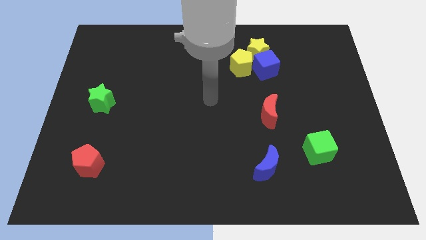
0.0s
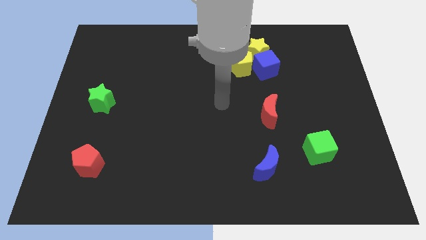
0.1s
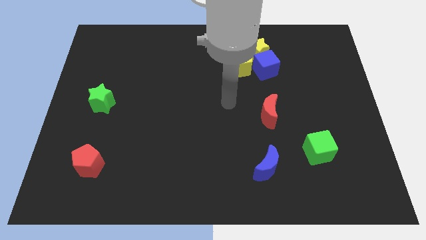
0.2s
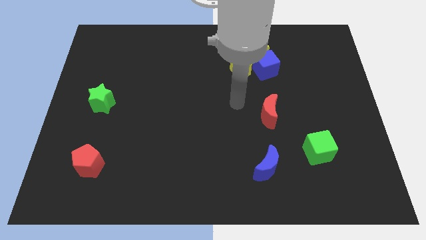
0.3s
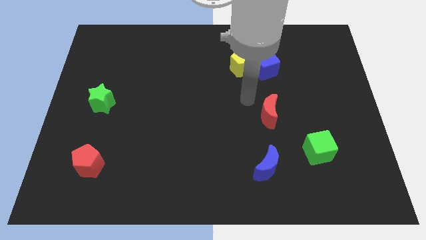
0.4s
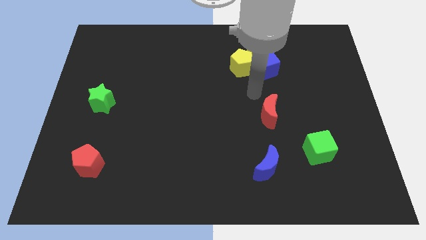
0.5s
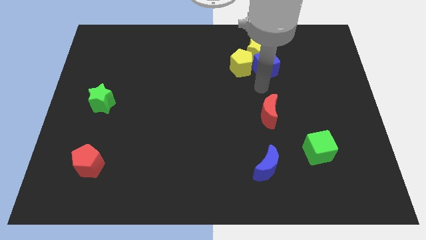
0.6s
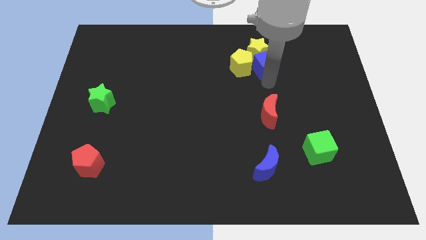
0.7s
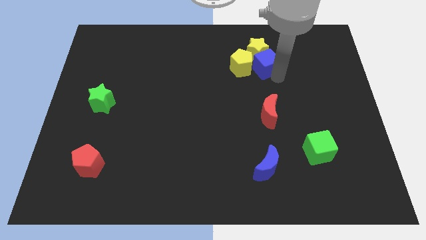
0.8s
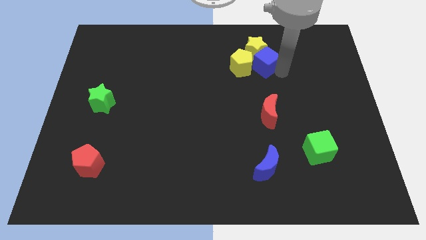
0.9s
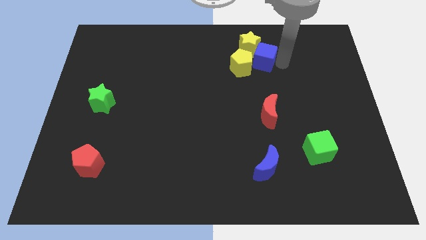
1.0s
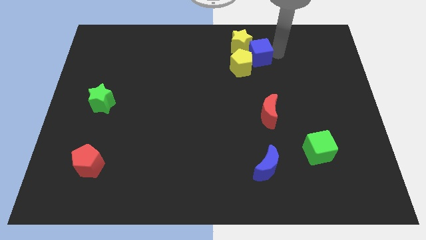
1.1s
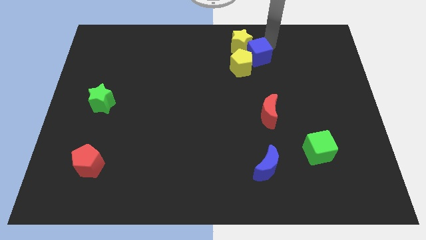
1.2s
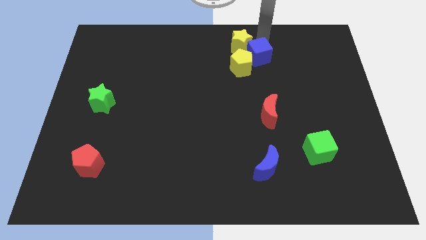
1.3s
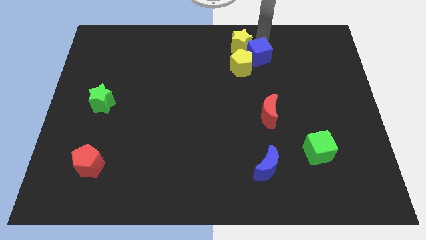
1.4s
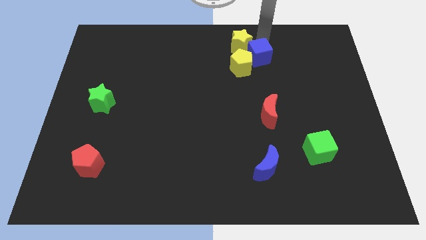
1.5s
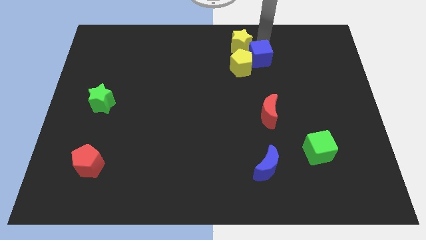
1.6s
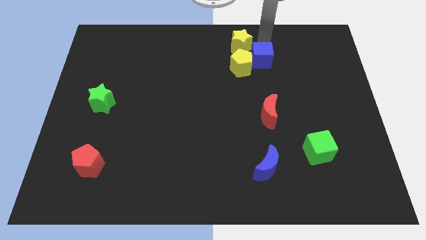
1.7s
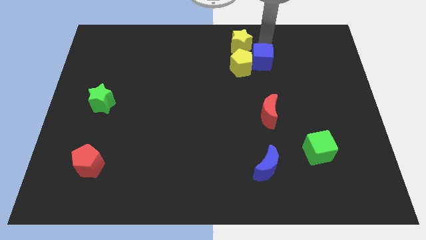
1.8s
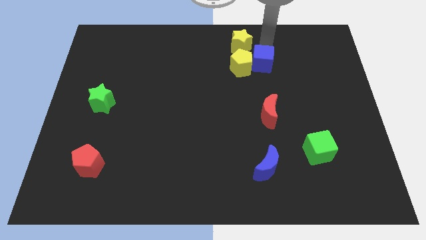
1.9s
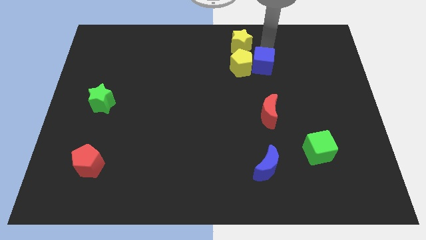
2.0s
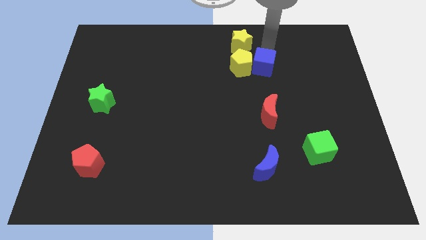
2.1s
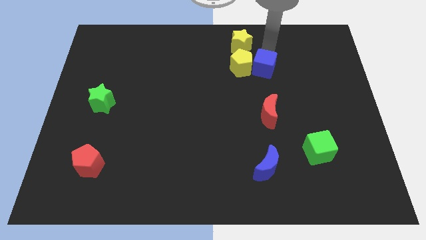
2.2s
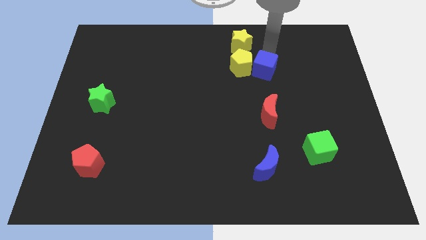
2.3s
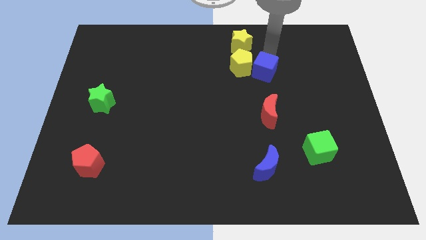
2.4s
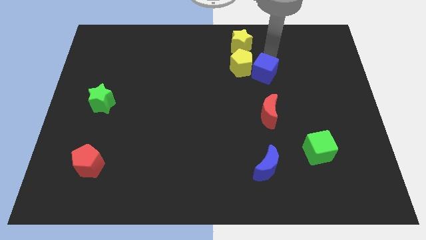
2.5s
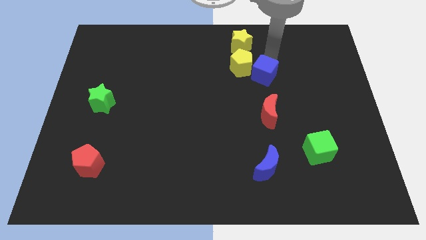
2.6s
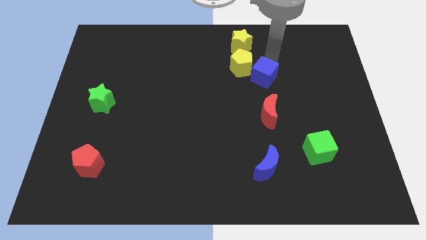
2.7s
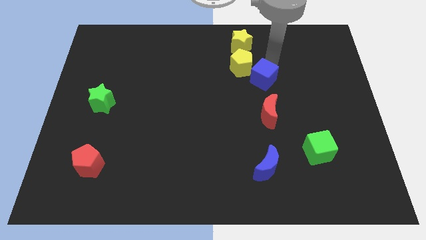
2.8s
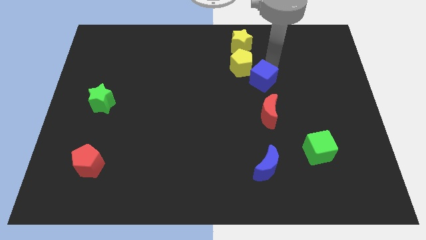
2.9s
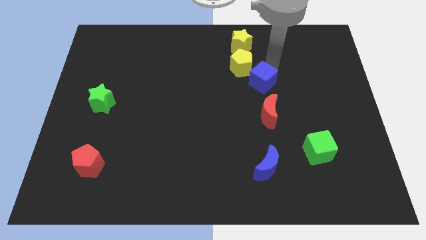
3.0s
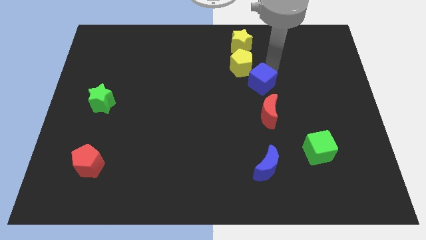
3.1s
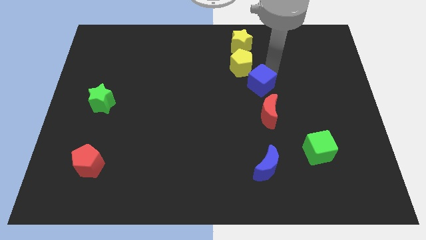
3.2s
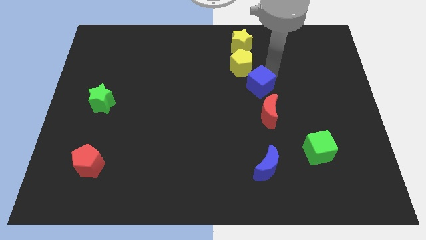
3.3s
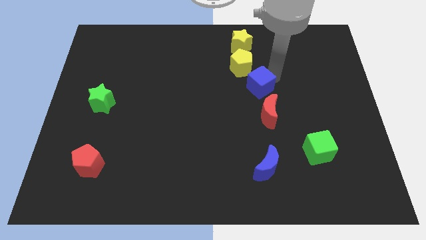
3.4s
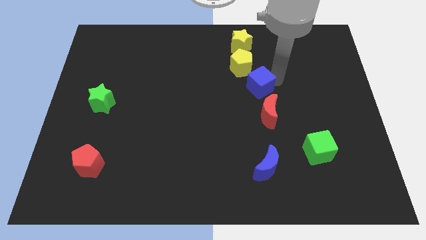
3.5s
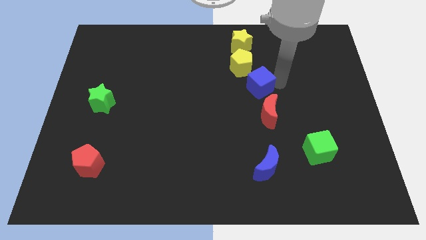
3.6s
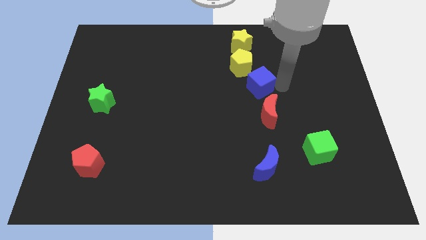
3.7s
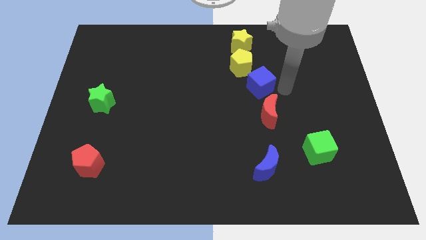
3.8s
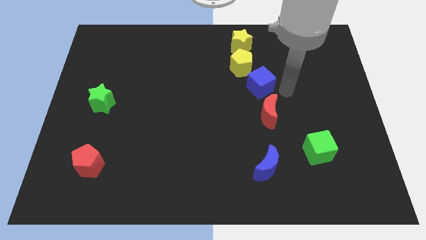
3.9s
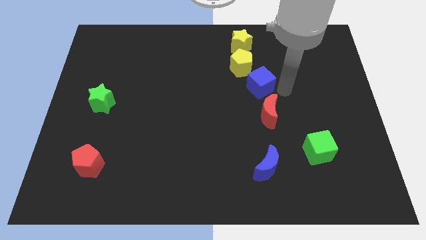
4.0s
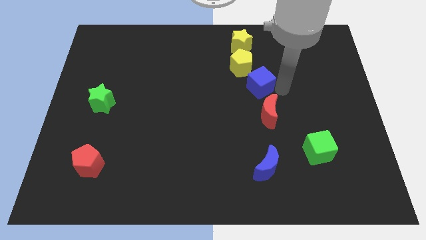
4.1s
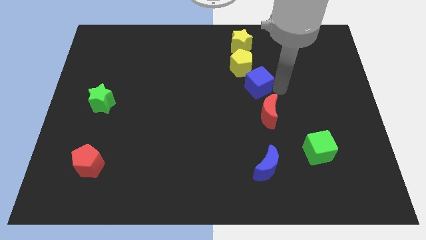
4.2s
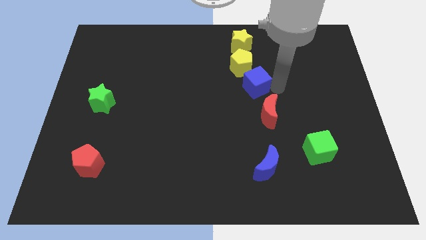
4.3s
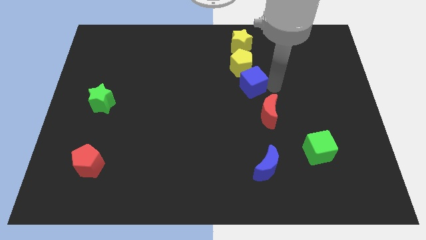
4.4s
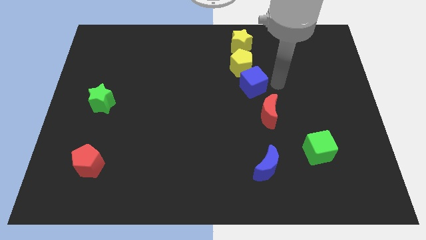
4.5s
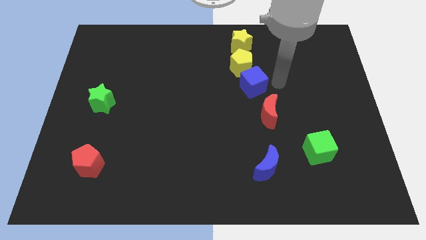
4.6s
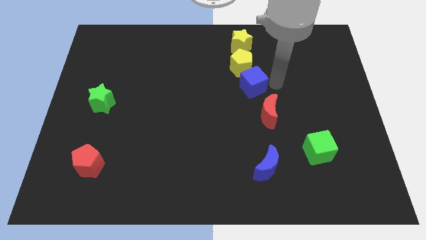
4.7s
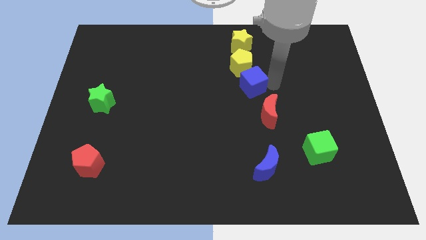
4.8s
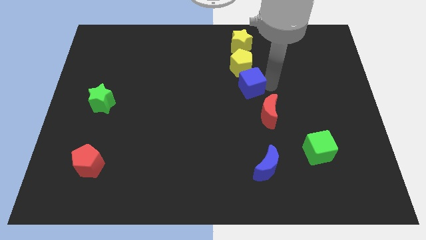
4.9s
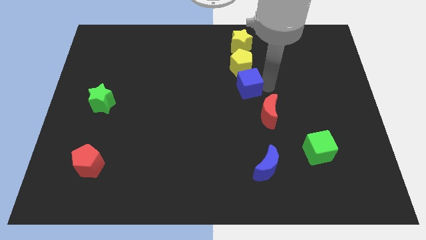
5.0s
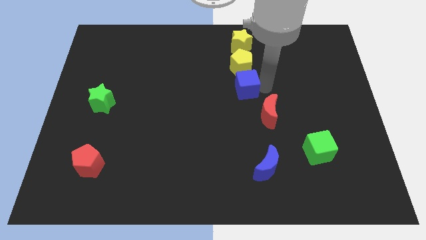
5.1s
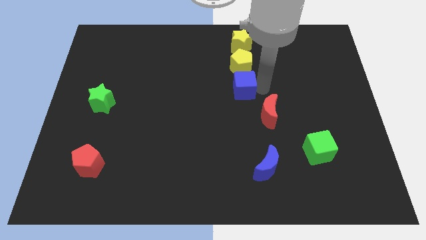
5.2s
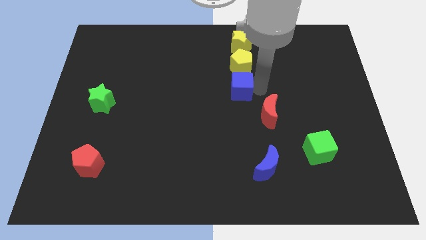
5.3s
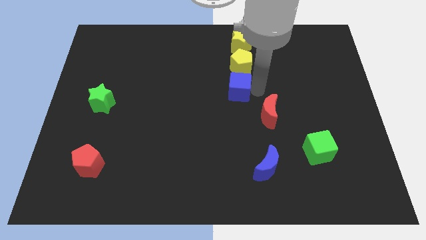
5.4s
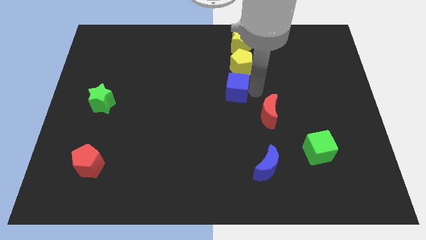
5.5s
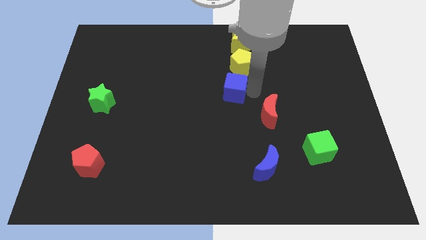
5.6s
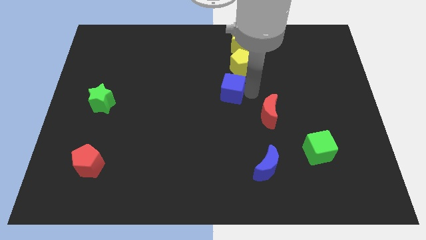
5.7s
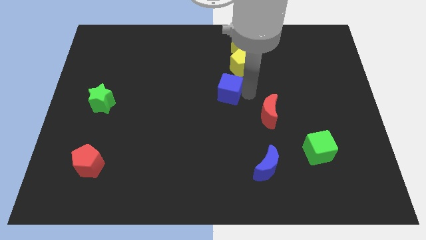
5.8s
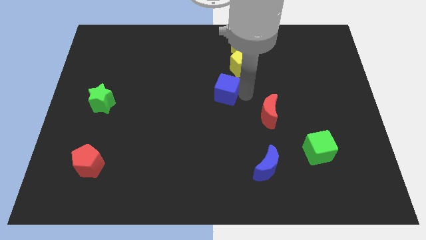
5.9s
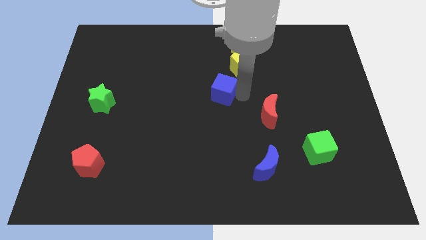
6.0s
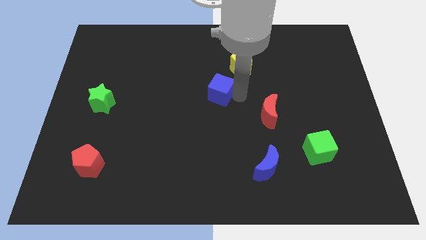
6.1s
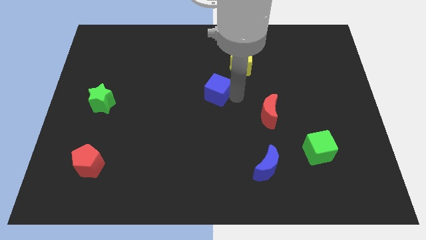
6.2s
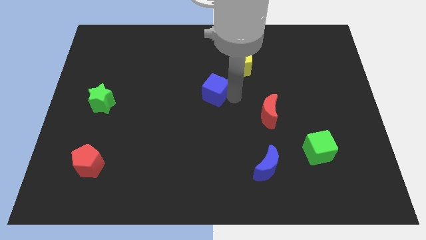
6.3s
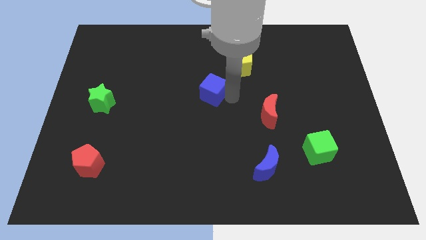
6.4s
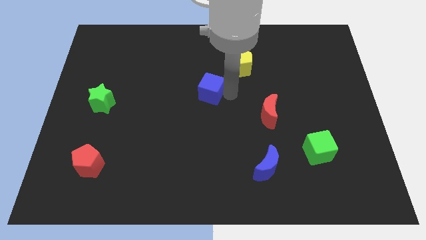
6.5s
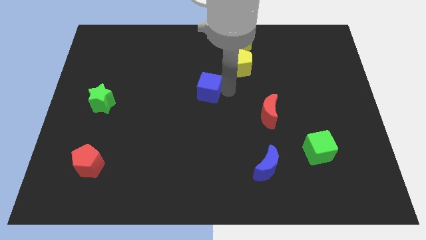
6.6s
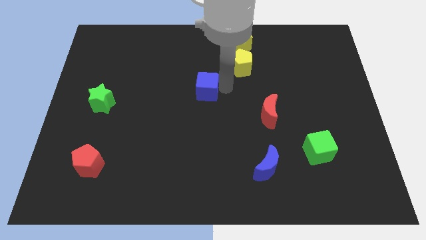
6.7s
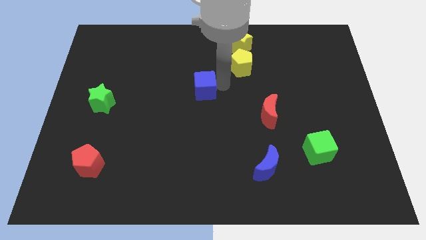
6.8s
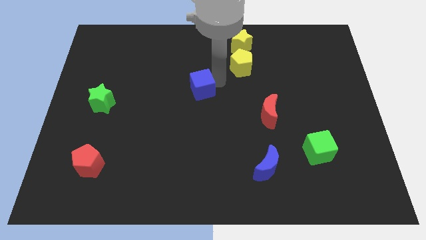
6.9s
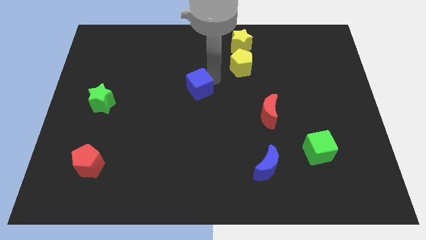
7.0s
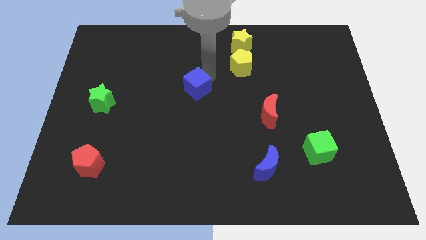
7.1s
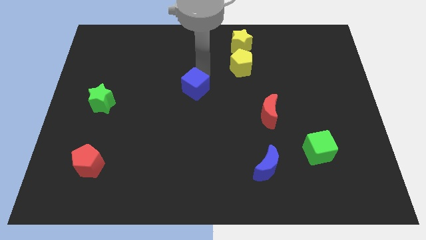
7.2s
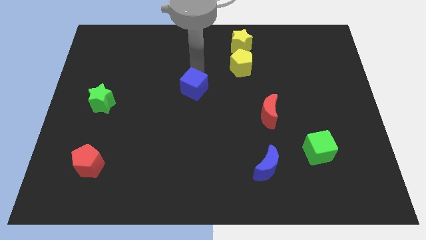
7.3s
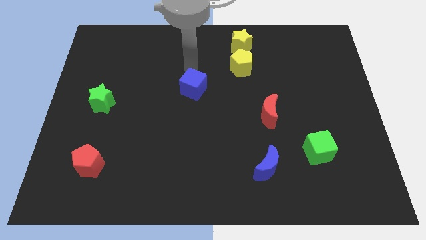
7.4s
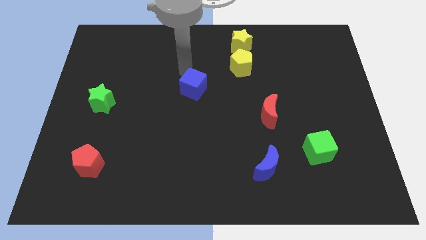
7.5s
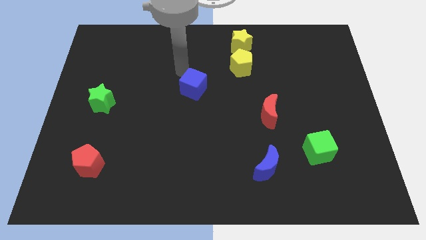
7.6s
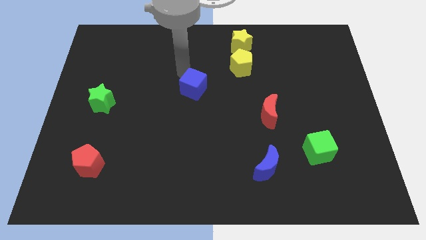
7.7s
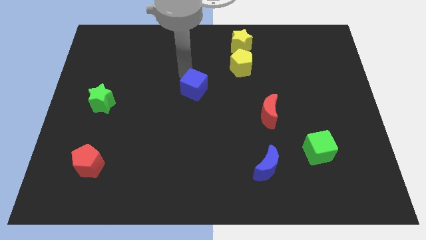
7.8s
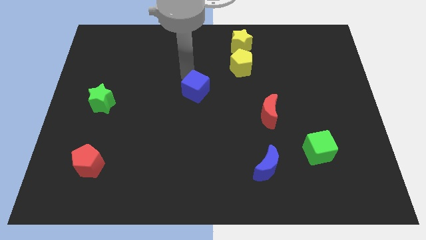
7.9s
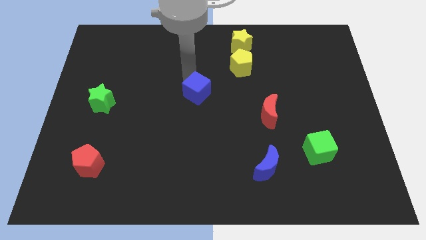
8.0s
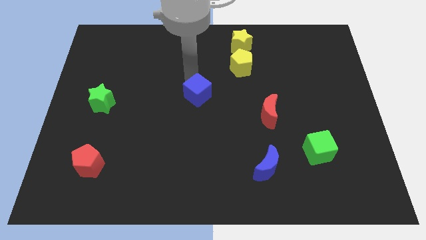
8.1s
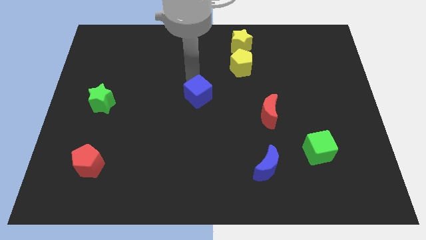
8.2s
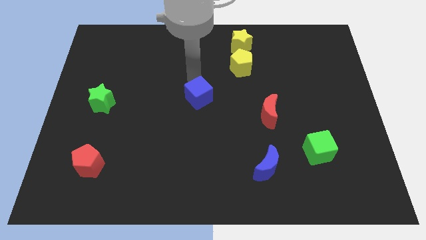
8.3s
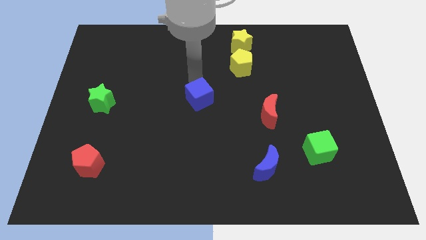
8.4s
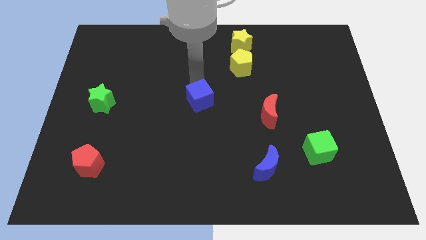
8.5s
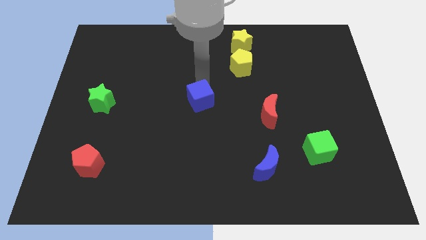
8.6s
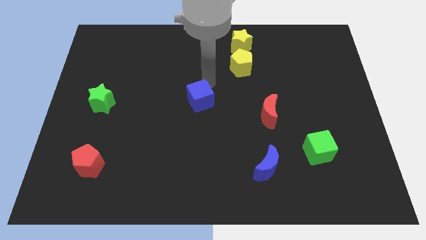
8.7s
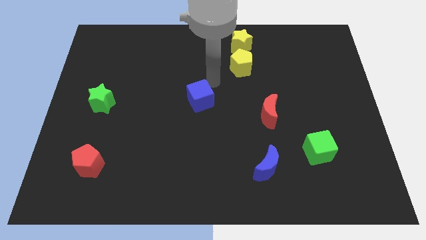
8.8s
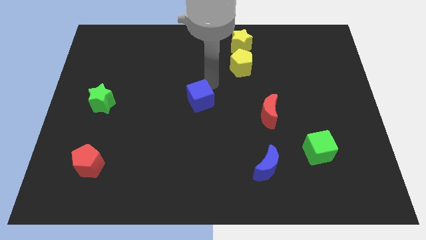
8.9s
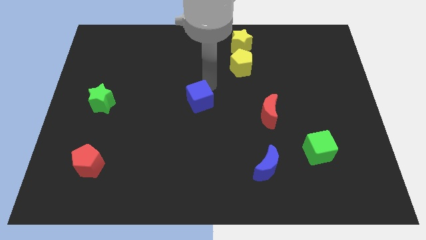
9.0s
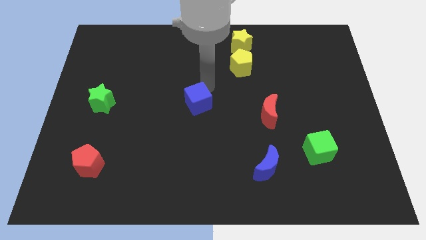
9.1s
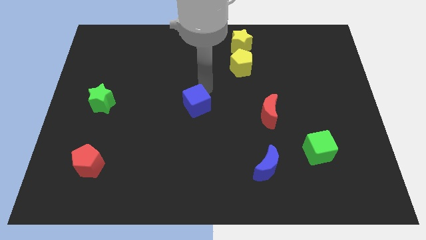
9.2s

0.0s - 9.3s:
slide the blue cube diagonally down and left
